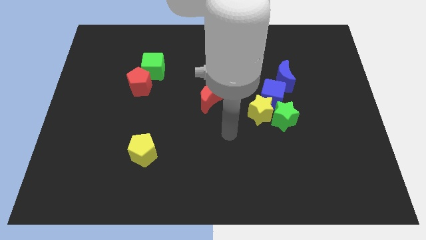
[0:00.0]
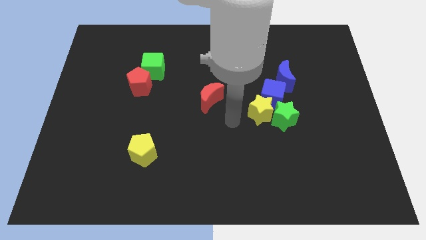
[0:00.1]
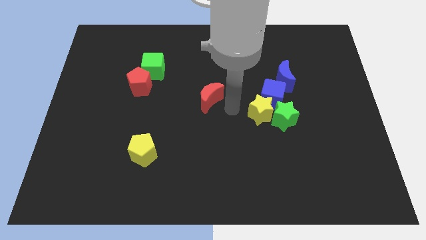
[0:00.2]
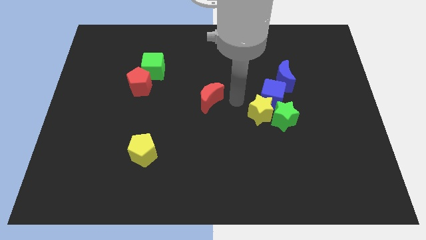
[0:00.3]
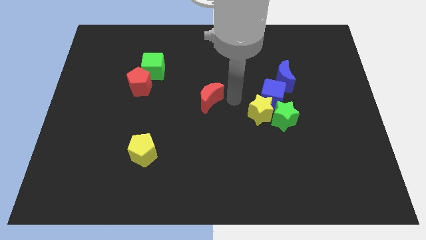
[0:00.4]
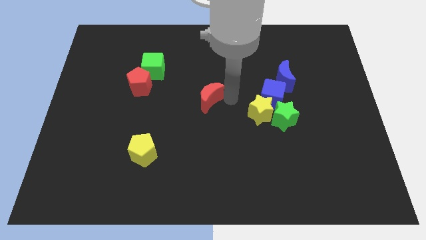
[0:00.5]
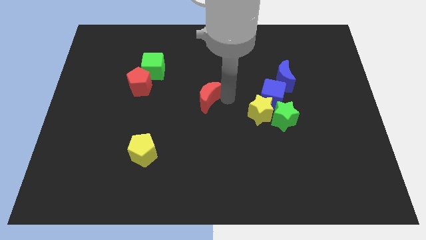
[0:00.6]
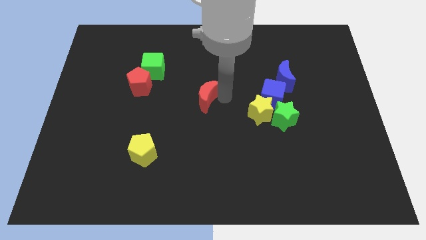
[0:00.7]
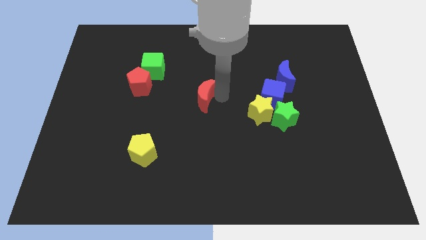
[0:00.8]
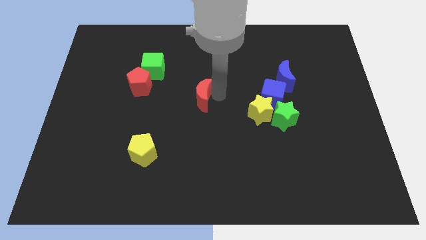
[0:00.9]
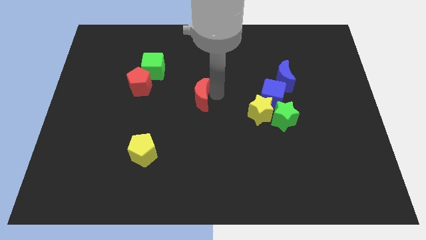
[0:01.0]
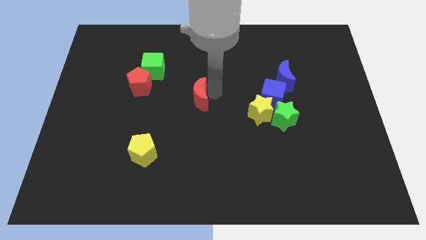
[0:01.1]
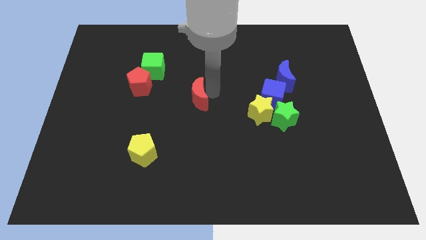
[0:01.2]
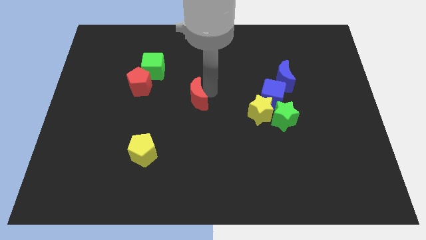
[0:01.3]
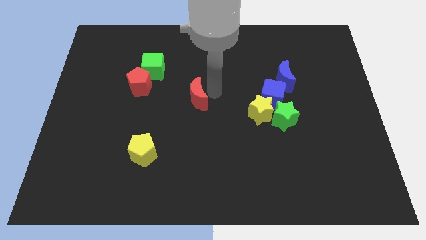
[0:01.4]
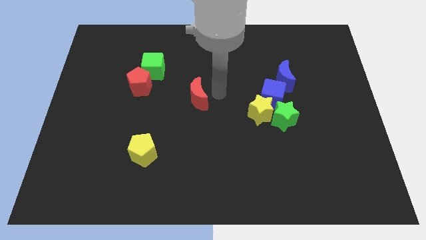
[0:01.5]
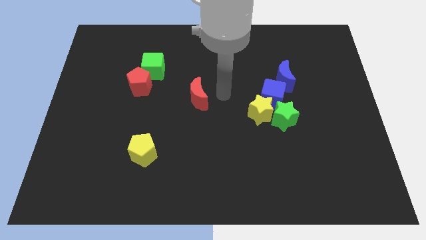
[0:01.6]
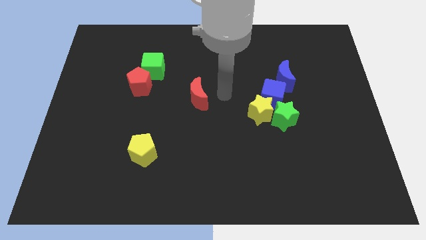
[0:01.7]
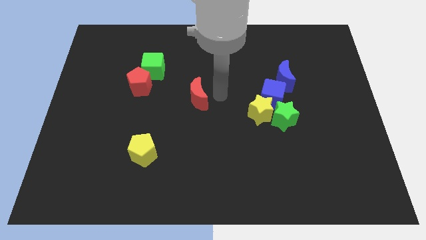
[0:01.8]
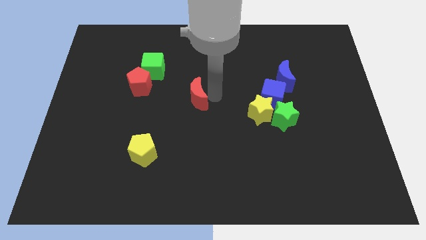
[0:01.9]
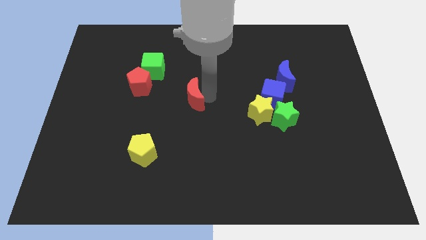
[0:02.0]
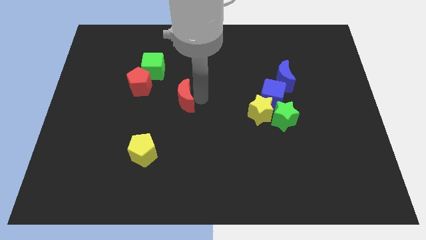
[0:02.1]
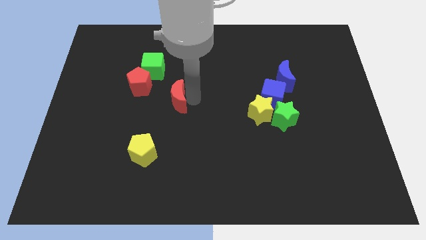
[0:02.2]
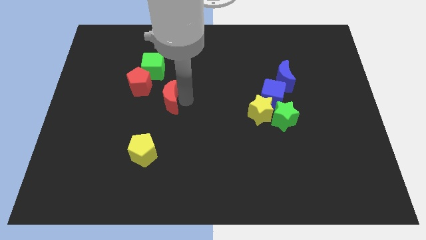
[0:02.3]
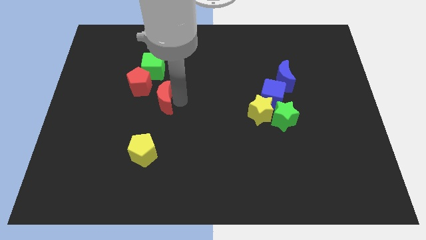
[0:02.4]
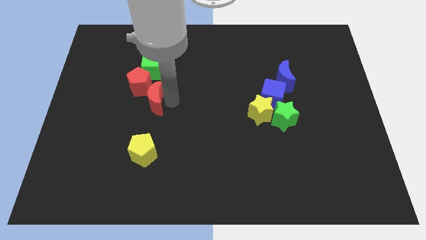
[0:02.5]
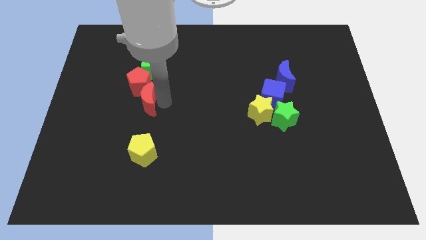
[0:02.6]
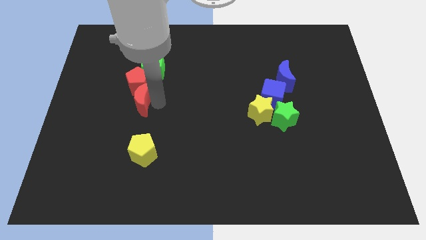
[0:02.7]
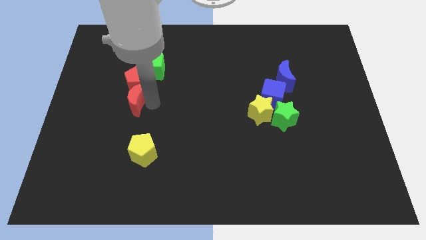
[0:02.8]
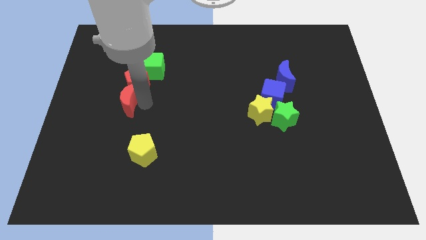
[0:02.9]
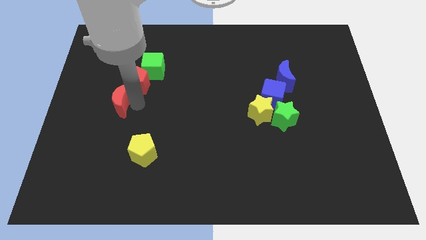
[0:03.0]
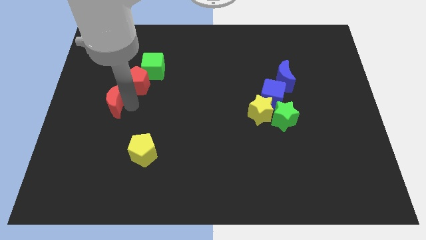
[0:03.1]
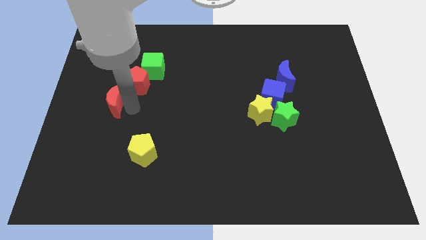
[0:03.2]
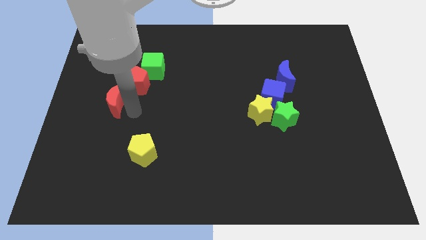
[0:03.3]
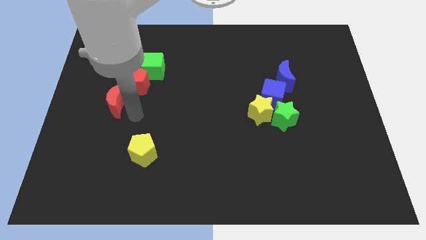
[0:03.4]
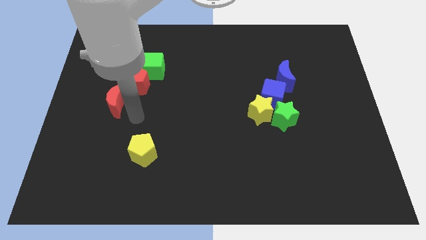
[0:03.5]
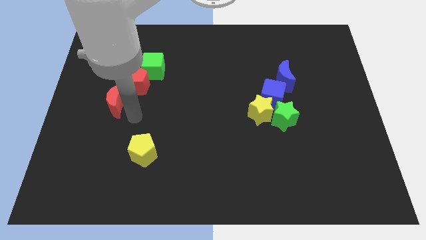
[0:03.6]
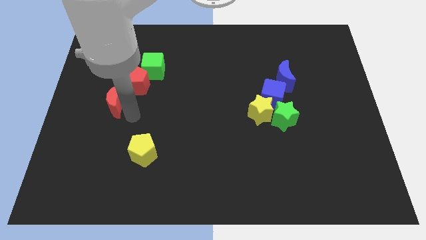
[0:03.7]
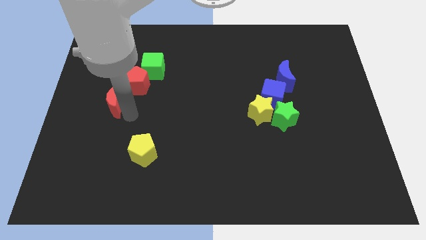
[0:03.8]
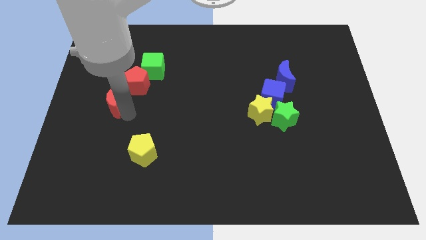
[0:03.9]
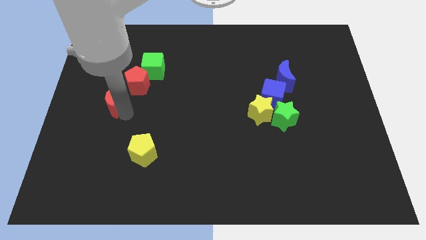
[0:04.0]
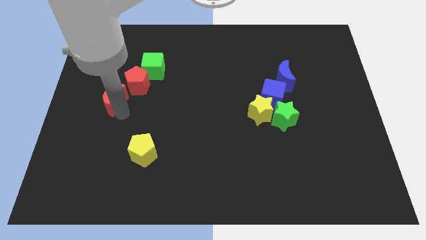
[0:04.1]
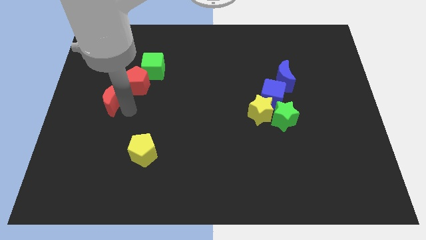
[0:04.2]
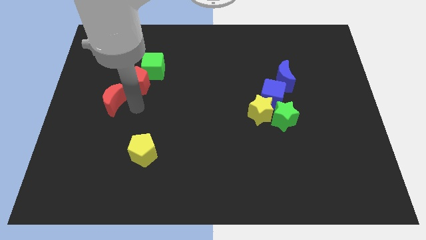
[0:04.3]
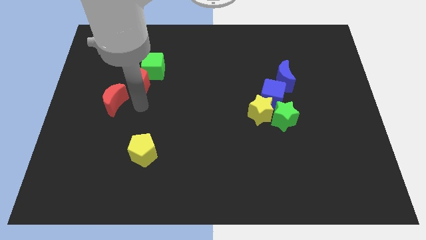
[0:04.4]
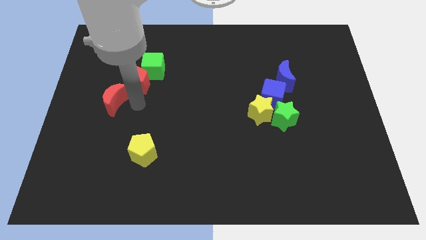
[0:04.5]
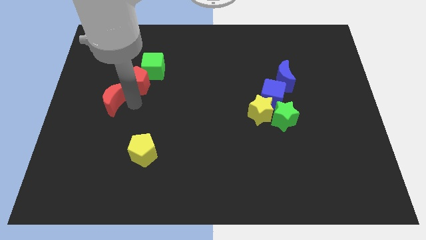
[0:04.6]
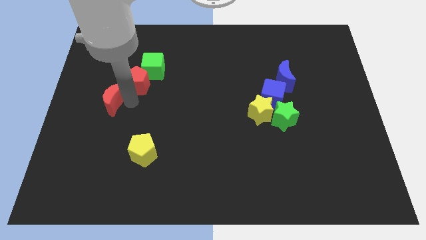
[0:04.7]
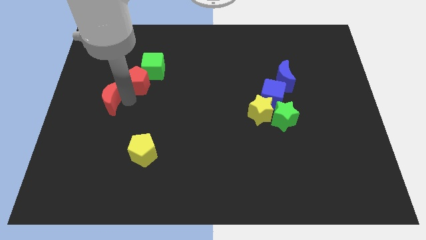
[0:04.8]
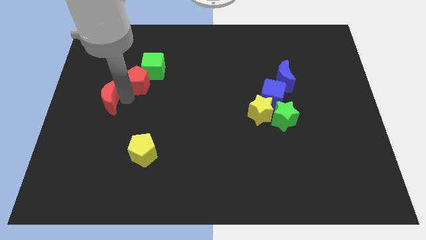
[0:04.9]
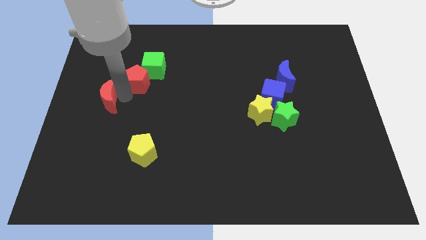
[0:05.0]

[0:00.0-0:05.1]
move the red moon to the left side of the board

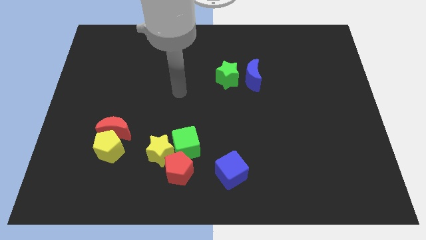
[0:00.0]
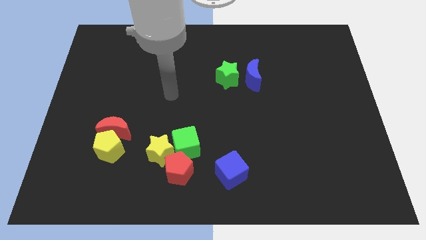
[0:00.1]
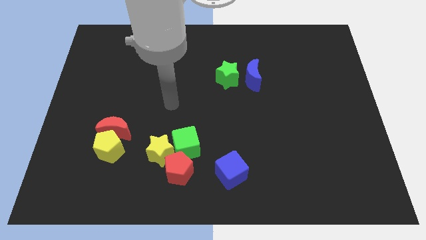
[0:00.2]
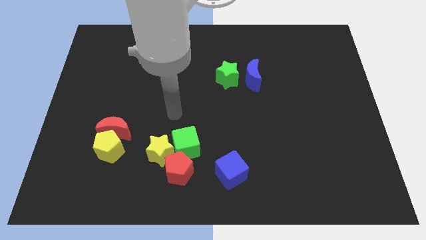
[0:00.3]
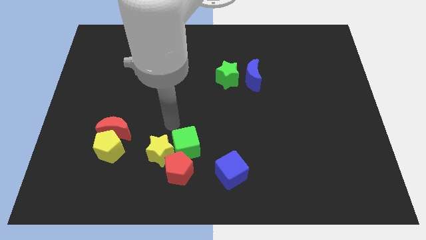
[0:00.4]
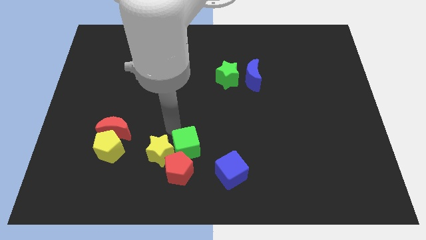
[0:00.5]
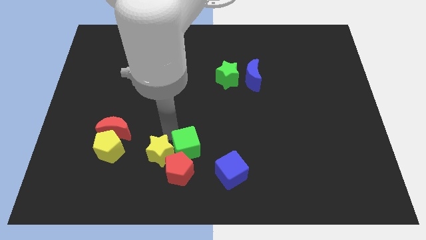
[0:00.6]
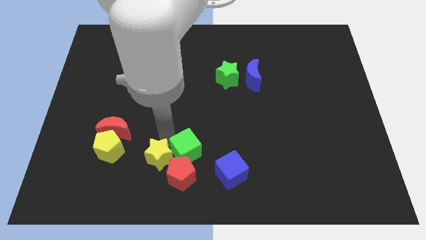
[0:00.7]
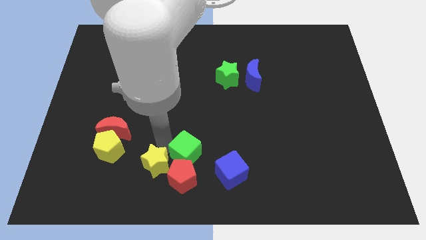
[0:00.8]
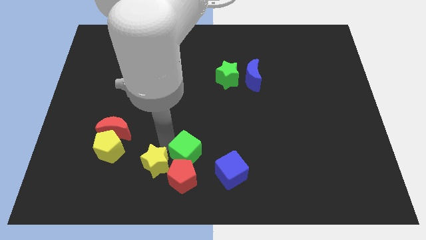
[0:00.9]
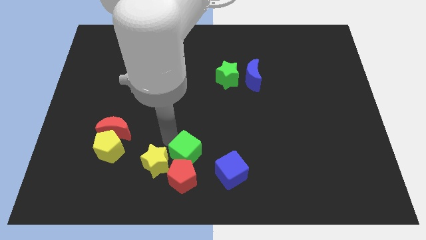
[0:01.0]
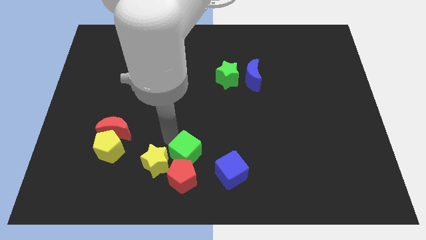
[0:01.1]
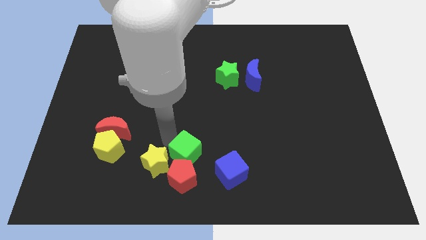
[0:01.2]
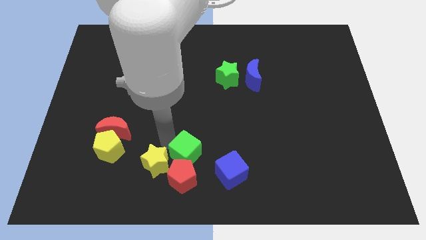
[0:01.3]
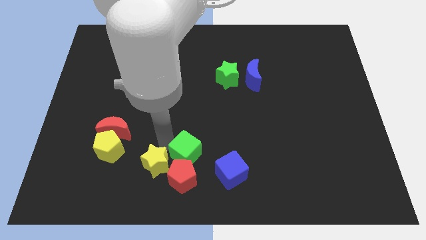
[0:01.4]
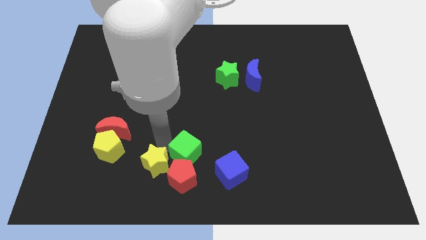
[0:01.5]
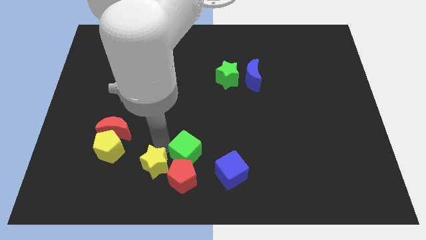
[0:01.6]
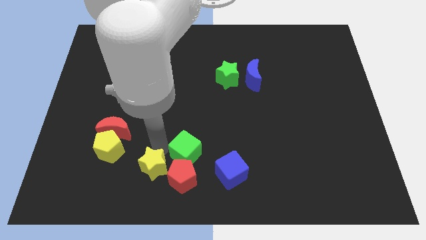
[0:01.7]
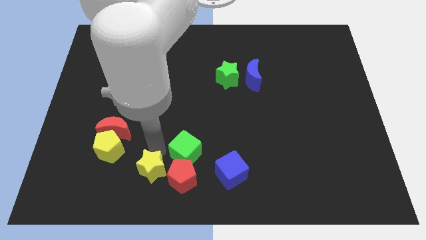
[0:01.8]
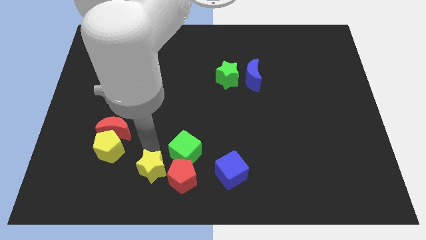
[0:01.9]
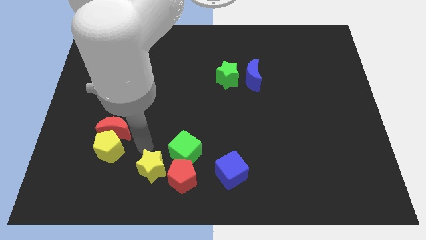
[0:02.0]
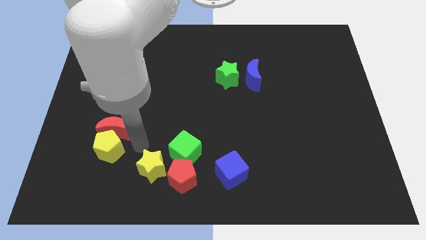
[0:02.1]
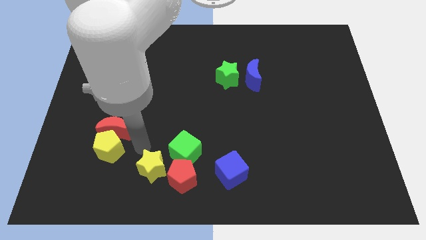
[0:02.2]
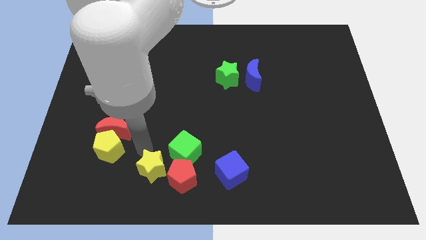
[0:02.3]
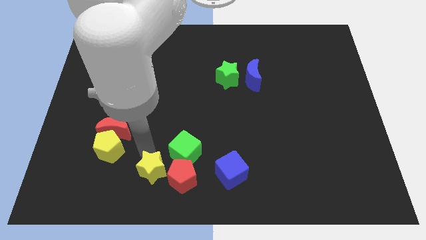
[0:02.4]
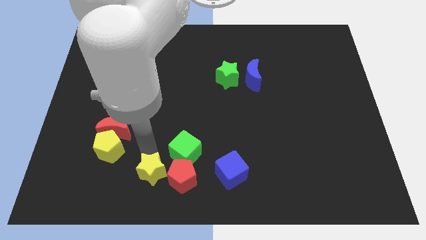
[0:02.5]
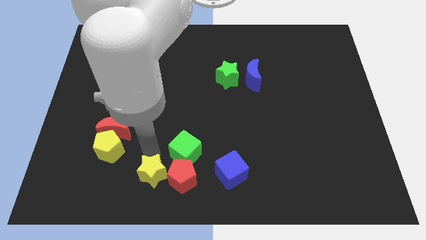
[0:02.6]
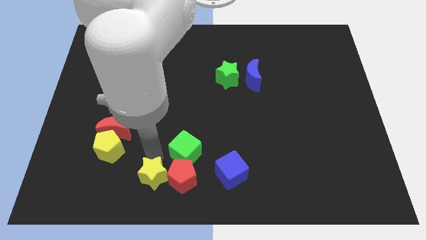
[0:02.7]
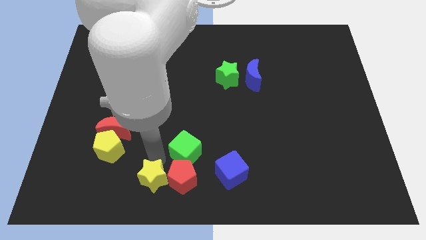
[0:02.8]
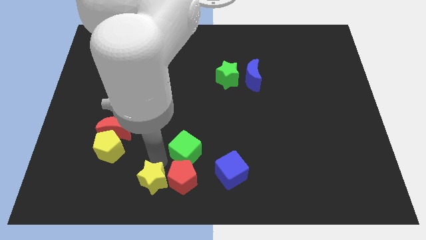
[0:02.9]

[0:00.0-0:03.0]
push the yellow star to the bottom side
